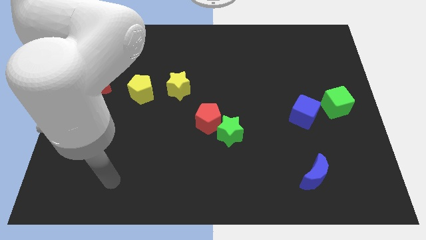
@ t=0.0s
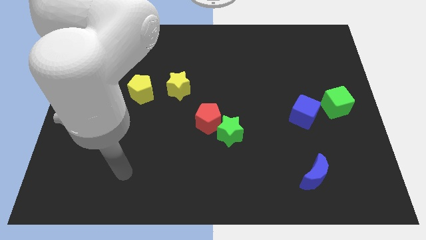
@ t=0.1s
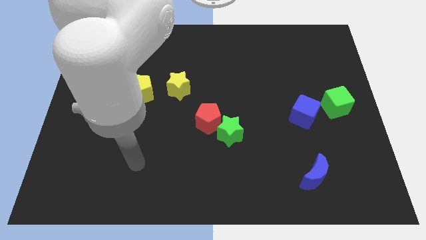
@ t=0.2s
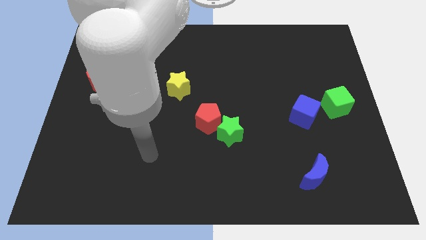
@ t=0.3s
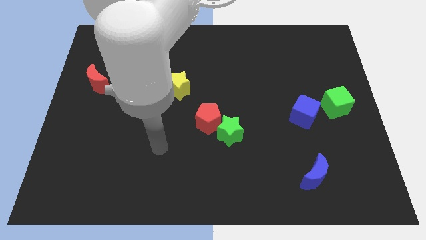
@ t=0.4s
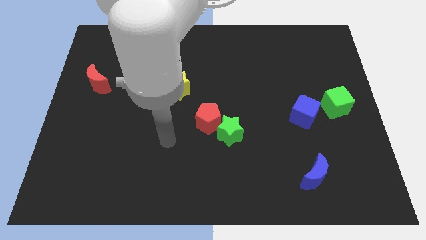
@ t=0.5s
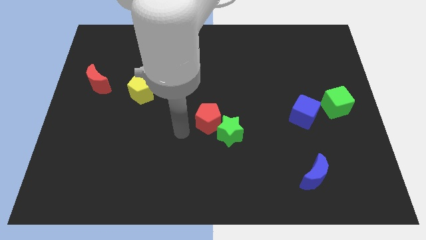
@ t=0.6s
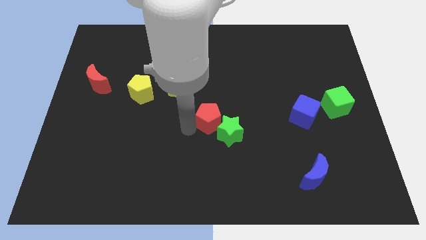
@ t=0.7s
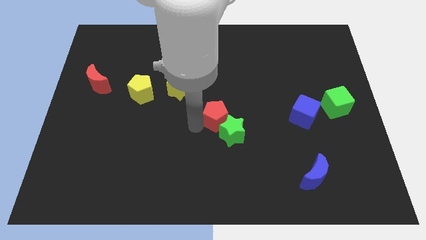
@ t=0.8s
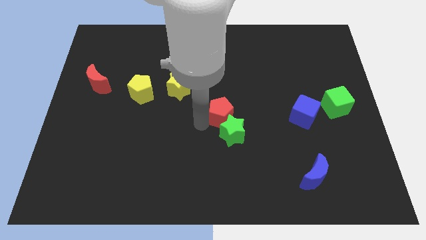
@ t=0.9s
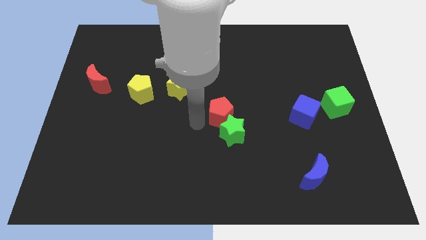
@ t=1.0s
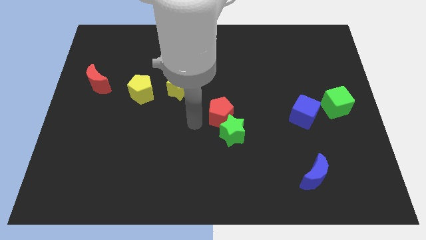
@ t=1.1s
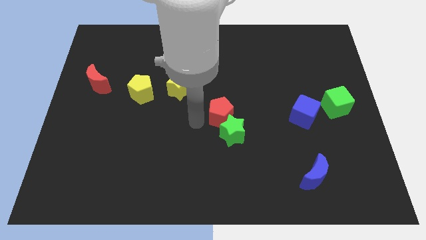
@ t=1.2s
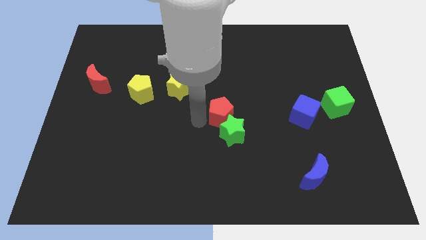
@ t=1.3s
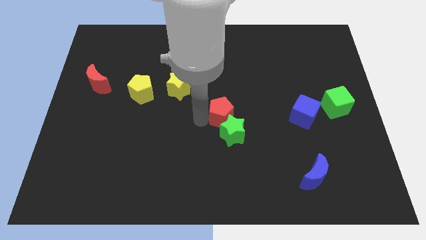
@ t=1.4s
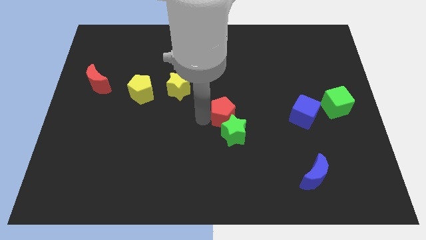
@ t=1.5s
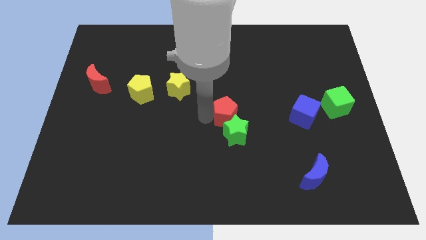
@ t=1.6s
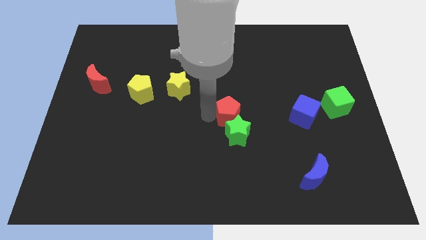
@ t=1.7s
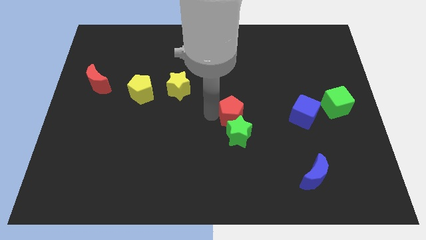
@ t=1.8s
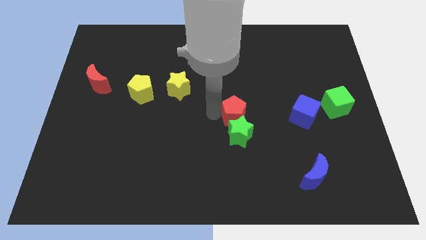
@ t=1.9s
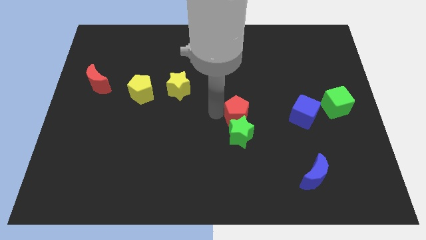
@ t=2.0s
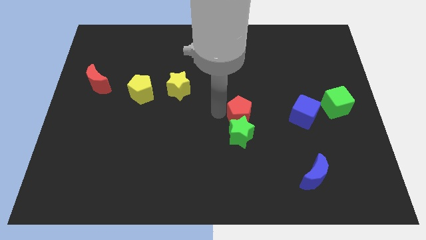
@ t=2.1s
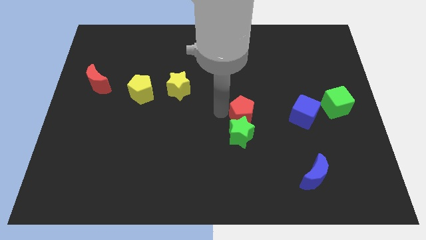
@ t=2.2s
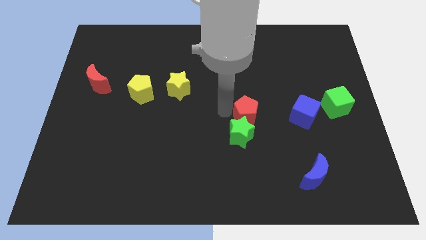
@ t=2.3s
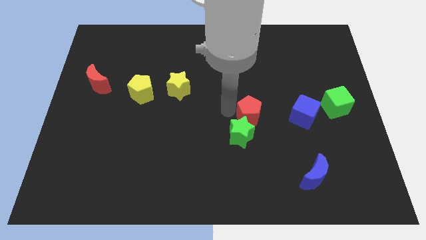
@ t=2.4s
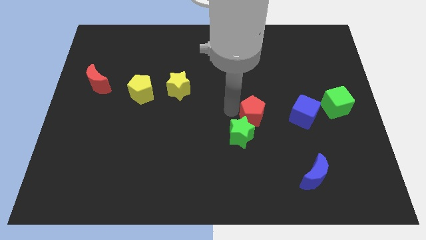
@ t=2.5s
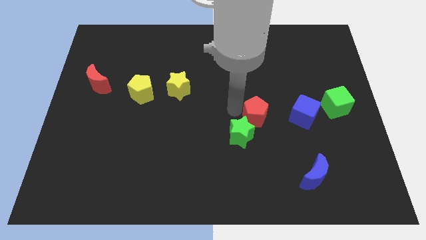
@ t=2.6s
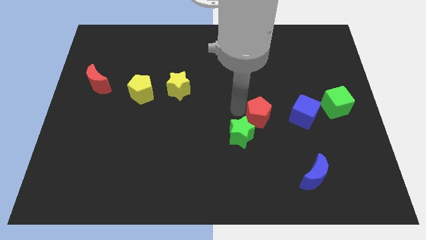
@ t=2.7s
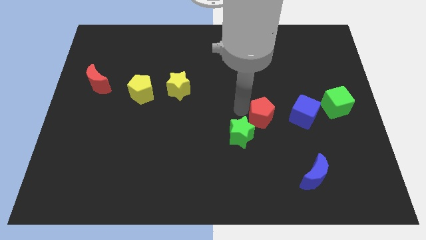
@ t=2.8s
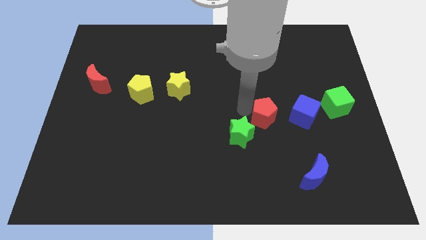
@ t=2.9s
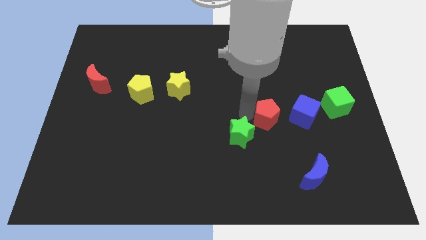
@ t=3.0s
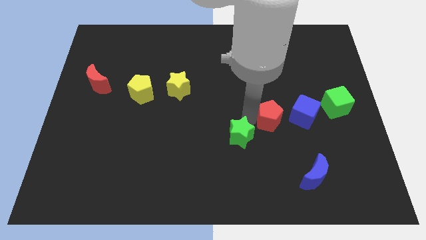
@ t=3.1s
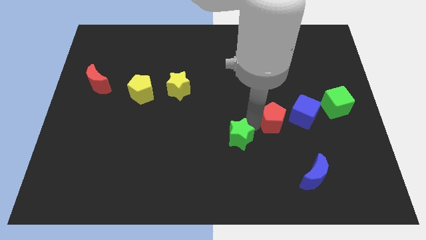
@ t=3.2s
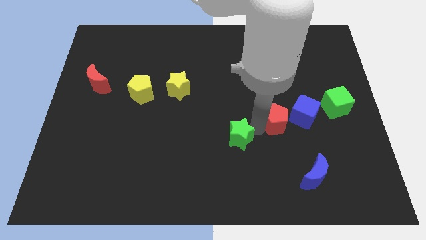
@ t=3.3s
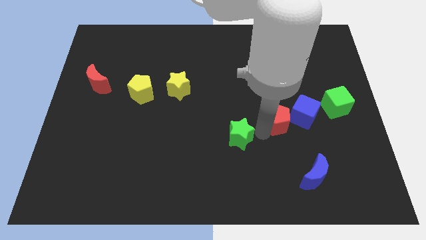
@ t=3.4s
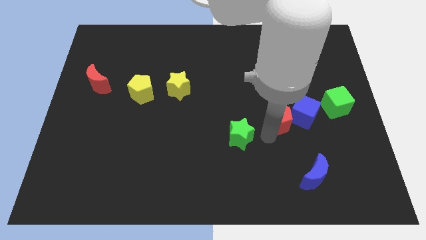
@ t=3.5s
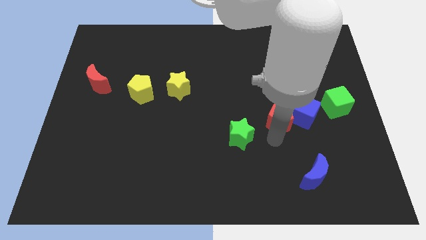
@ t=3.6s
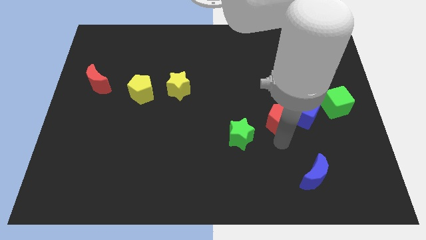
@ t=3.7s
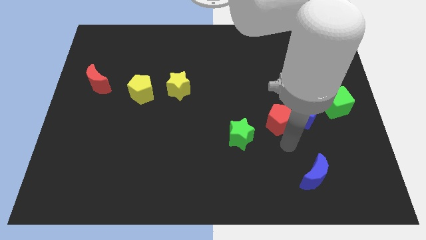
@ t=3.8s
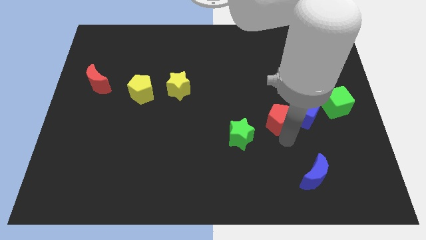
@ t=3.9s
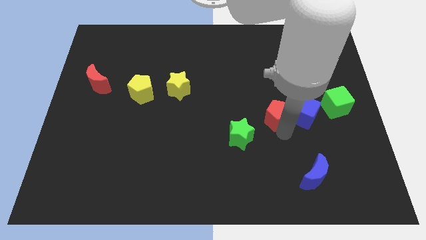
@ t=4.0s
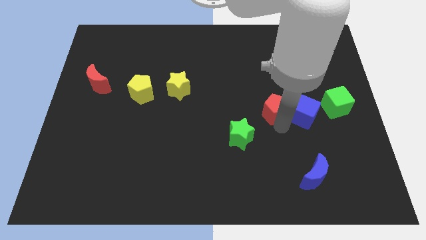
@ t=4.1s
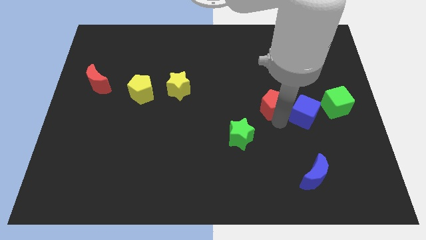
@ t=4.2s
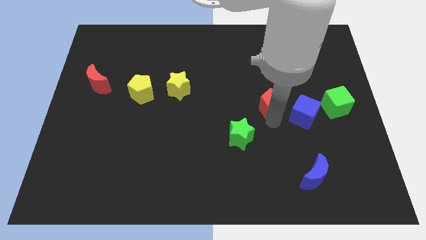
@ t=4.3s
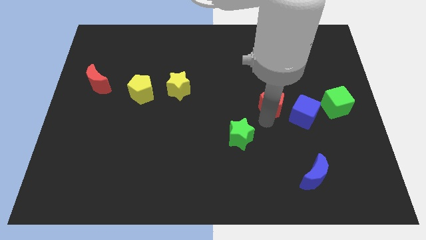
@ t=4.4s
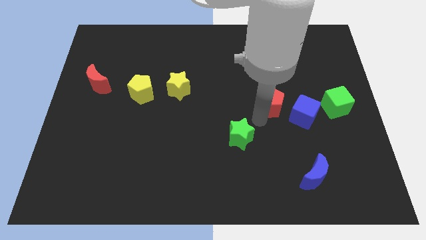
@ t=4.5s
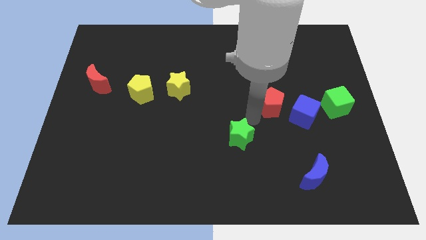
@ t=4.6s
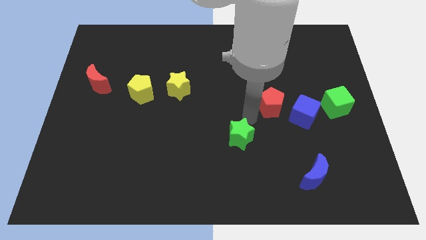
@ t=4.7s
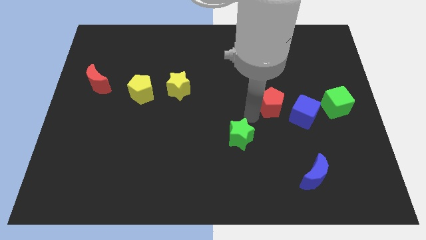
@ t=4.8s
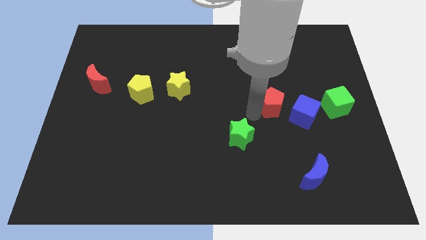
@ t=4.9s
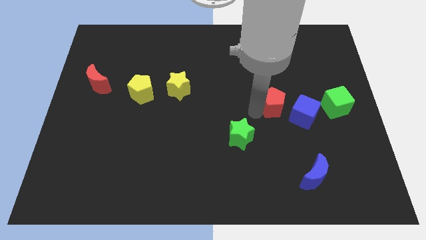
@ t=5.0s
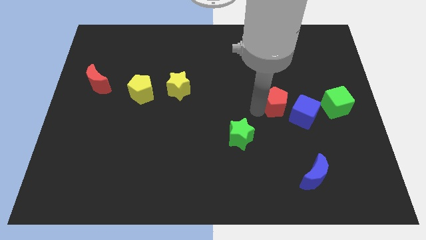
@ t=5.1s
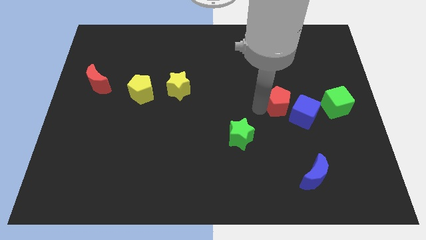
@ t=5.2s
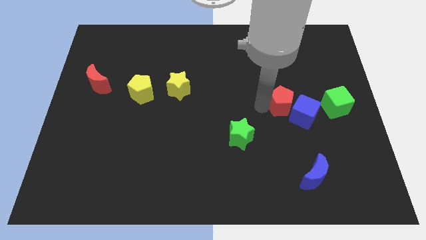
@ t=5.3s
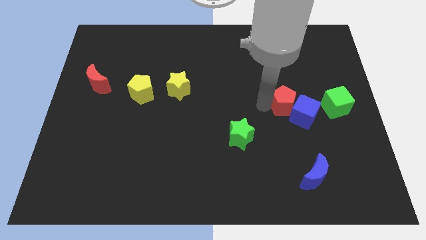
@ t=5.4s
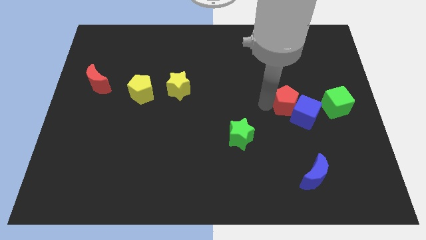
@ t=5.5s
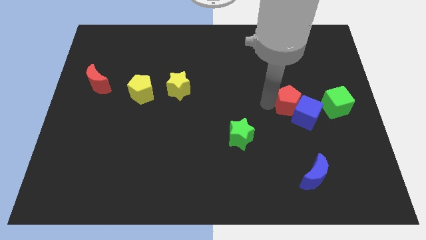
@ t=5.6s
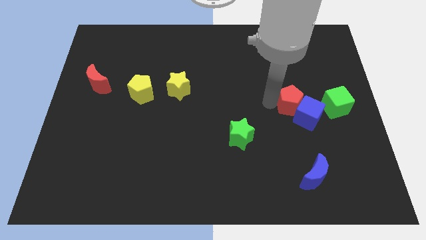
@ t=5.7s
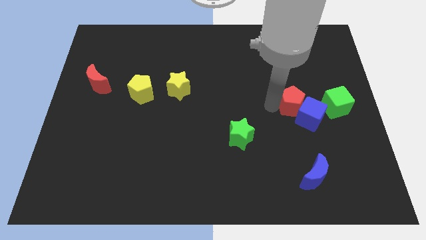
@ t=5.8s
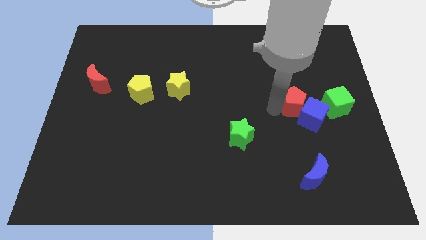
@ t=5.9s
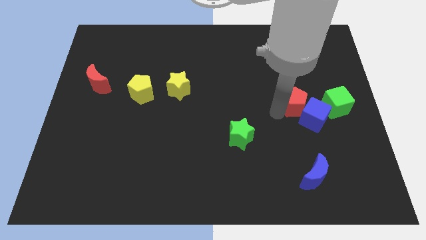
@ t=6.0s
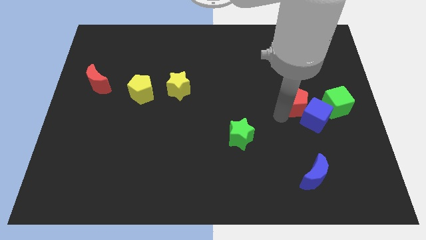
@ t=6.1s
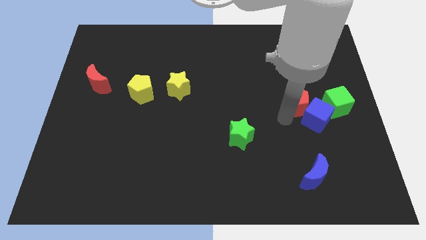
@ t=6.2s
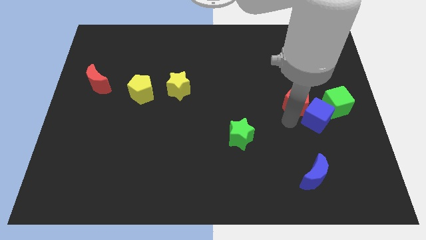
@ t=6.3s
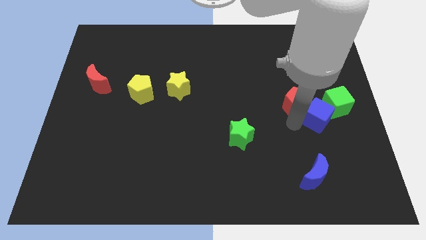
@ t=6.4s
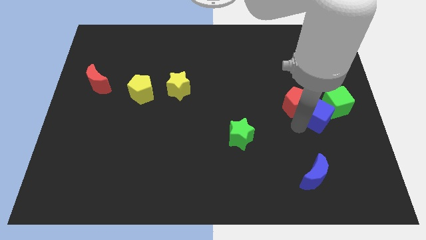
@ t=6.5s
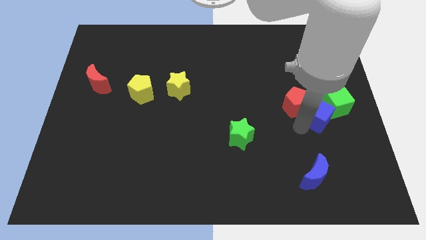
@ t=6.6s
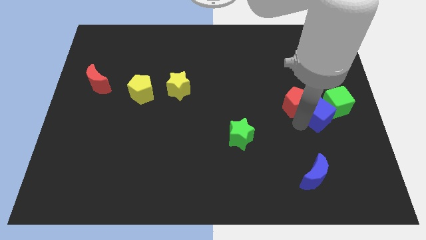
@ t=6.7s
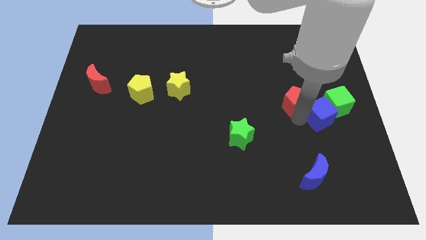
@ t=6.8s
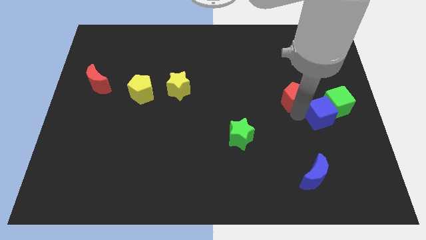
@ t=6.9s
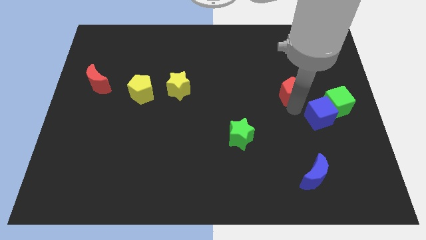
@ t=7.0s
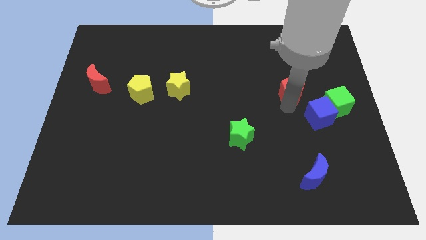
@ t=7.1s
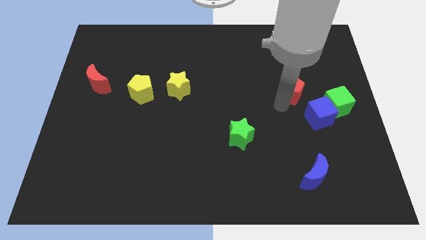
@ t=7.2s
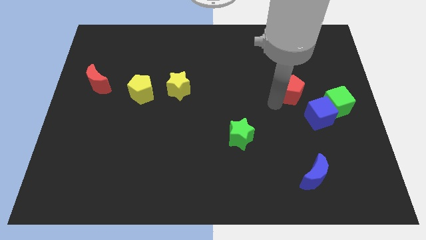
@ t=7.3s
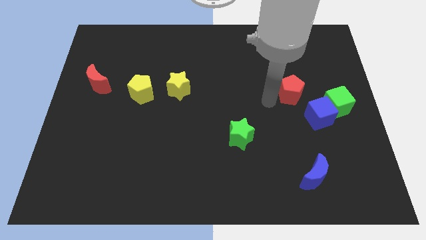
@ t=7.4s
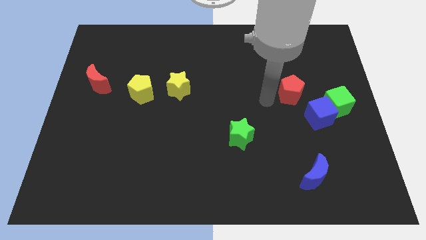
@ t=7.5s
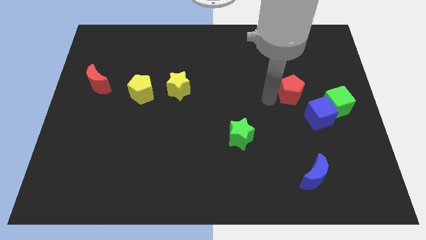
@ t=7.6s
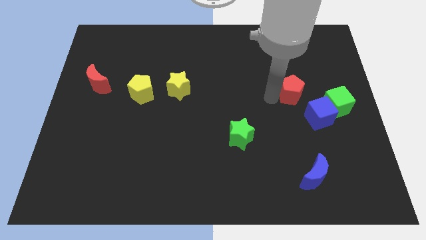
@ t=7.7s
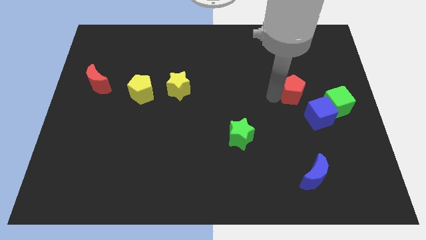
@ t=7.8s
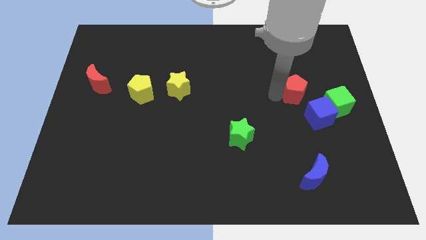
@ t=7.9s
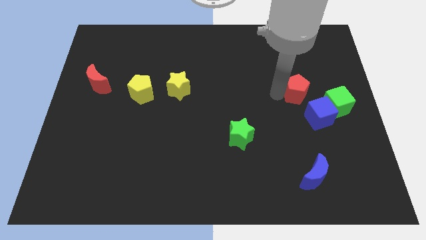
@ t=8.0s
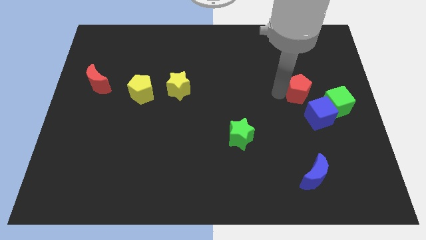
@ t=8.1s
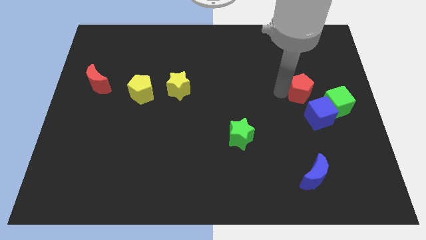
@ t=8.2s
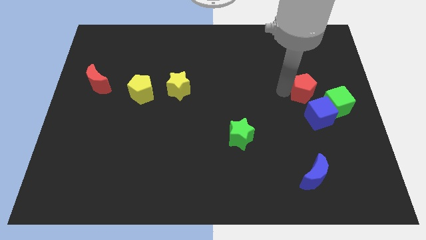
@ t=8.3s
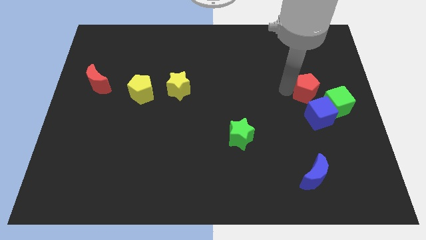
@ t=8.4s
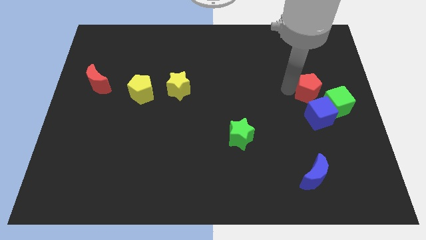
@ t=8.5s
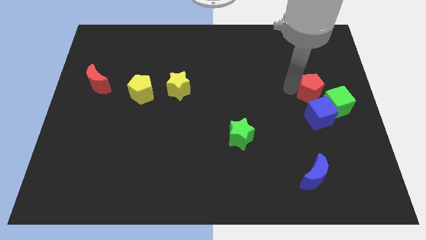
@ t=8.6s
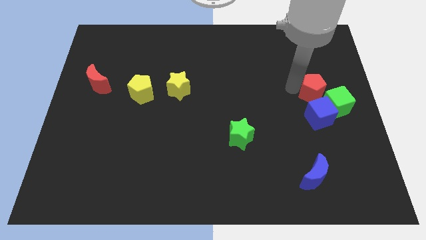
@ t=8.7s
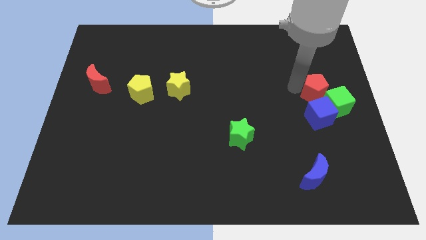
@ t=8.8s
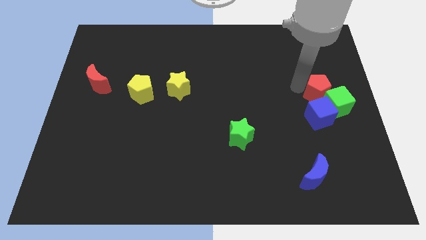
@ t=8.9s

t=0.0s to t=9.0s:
push the red pentagon to the right side of the board
